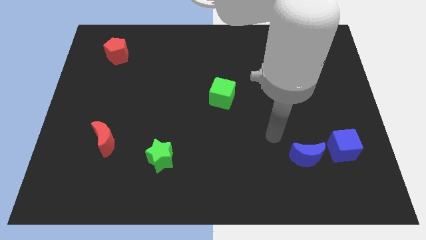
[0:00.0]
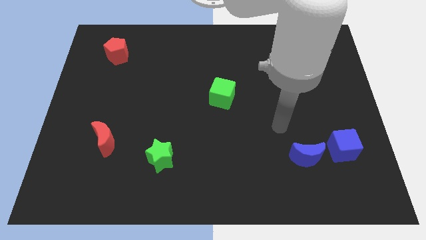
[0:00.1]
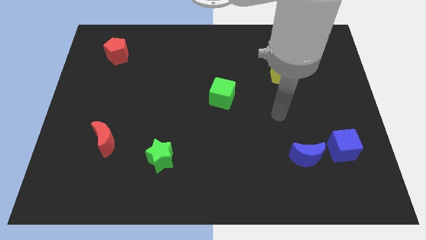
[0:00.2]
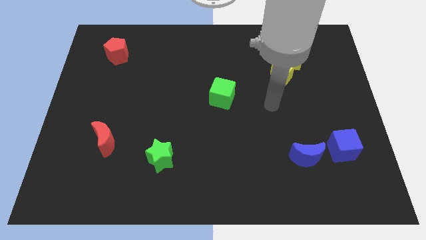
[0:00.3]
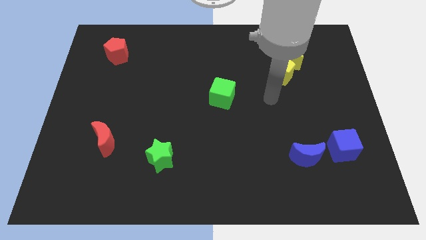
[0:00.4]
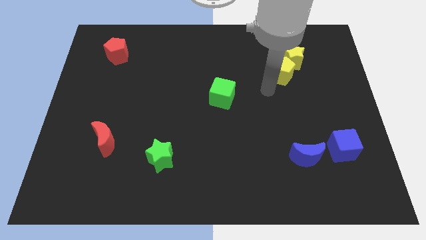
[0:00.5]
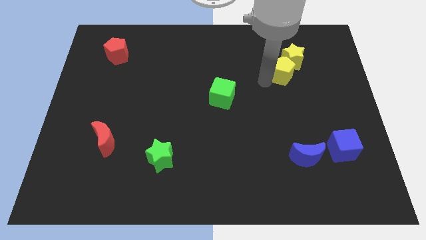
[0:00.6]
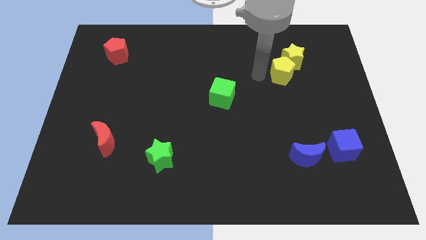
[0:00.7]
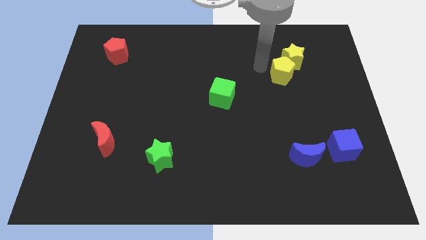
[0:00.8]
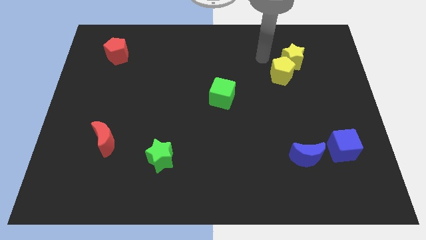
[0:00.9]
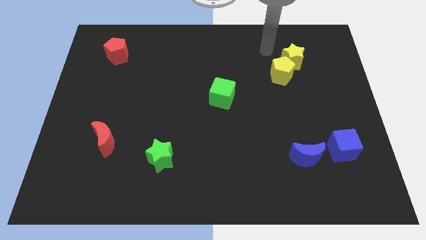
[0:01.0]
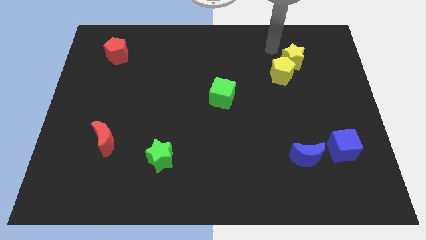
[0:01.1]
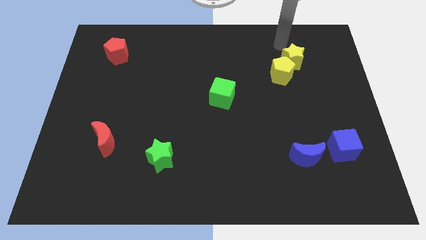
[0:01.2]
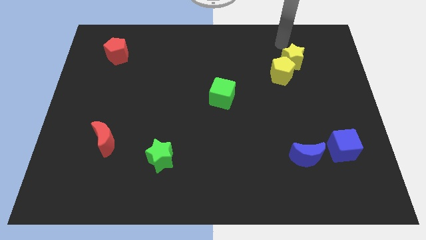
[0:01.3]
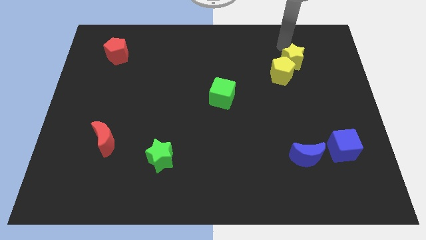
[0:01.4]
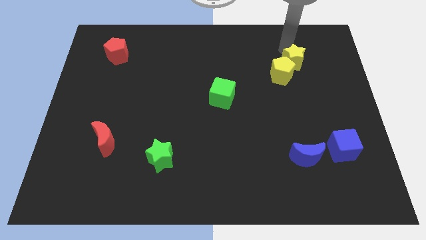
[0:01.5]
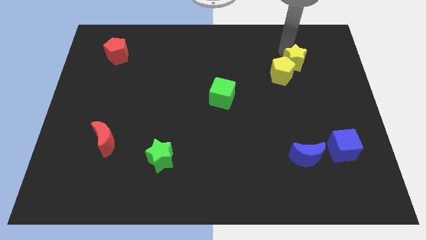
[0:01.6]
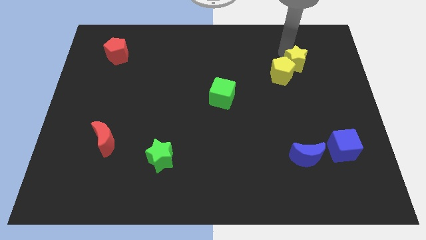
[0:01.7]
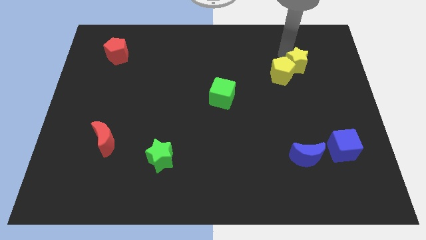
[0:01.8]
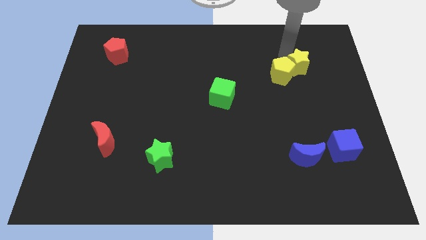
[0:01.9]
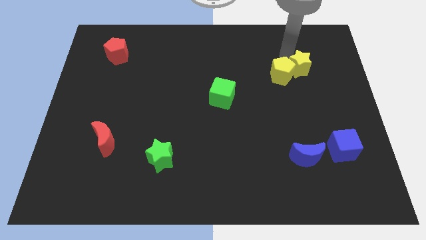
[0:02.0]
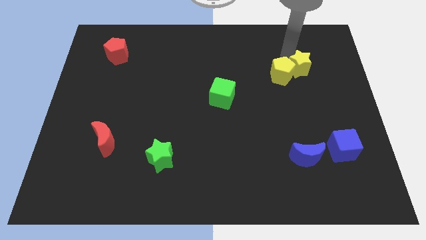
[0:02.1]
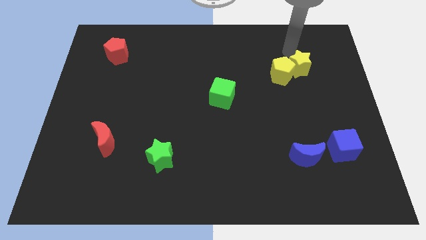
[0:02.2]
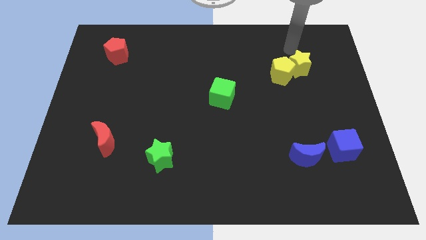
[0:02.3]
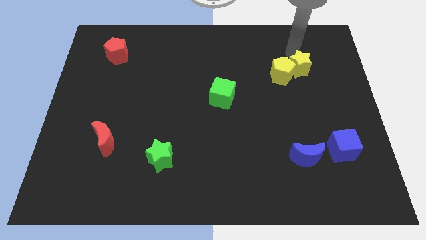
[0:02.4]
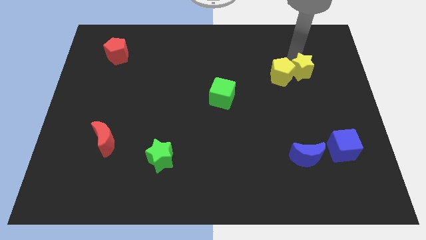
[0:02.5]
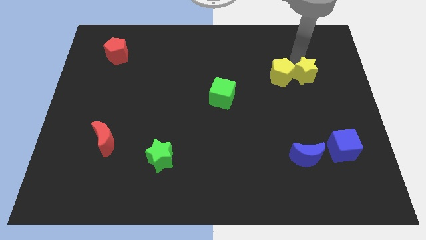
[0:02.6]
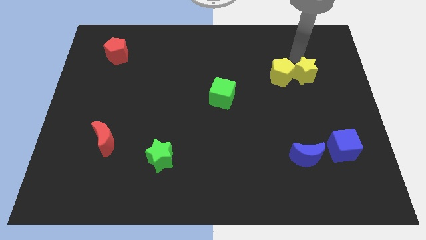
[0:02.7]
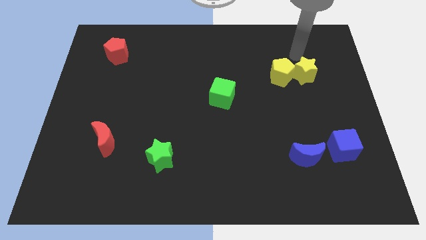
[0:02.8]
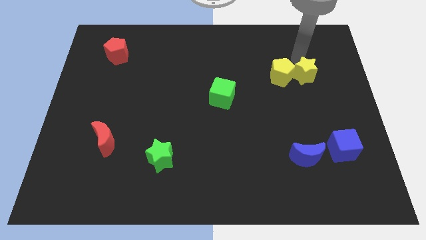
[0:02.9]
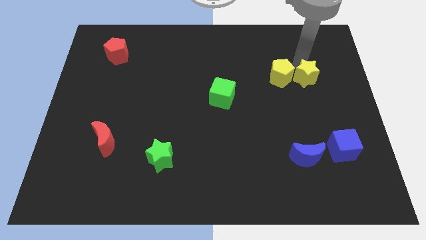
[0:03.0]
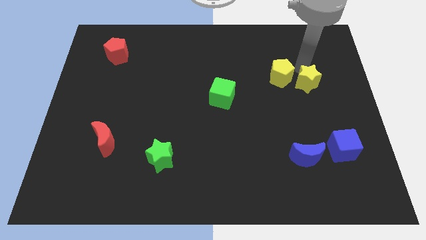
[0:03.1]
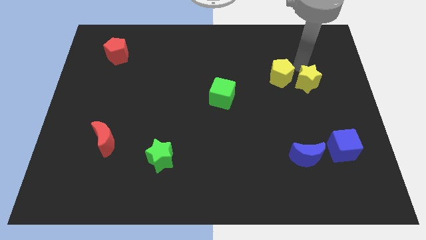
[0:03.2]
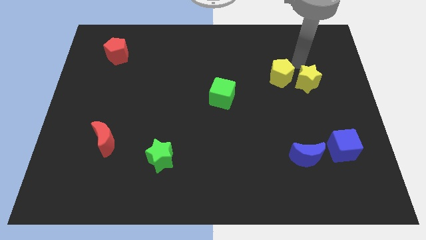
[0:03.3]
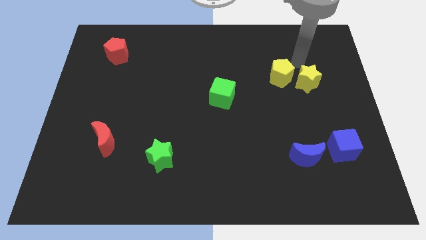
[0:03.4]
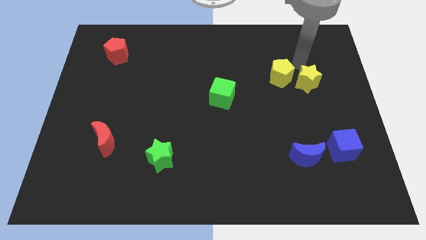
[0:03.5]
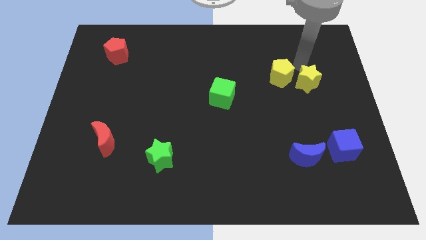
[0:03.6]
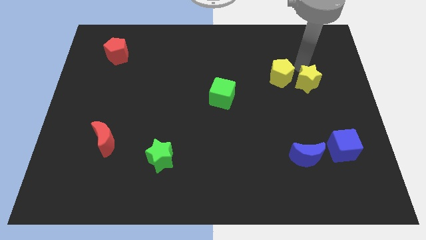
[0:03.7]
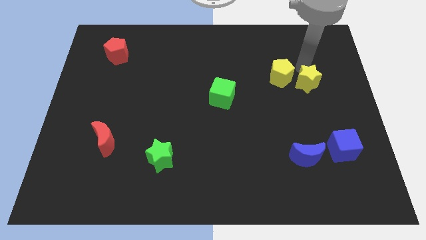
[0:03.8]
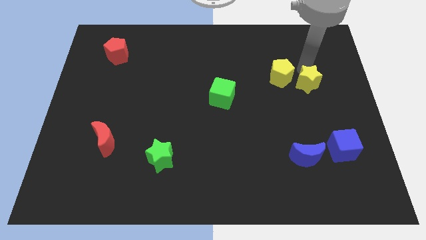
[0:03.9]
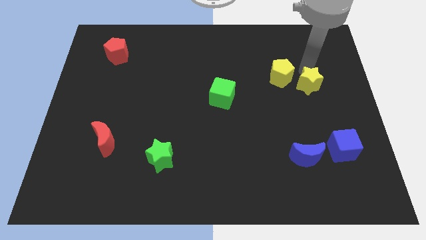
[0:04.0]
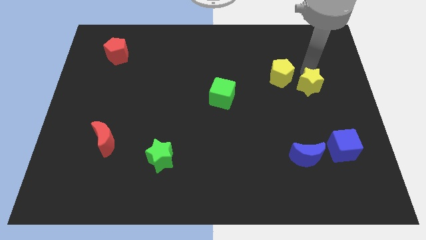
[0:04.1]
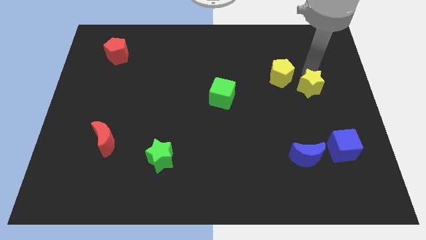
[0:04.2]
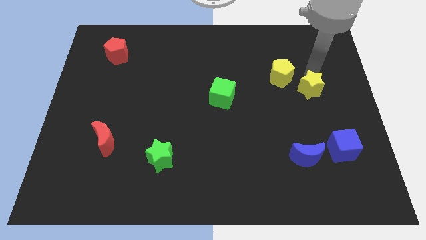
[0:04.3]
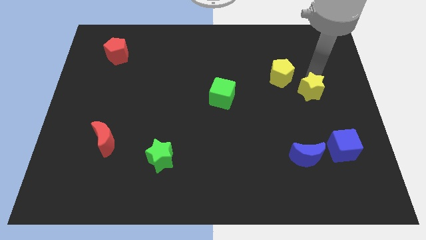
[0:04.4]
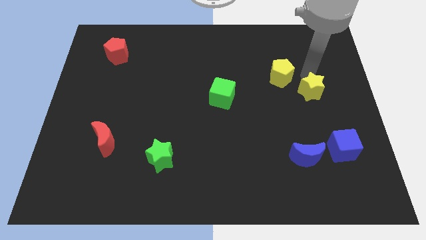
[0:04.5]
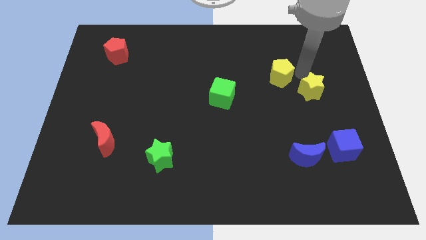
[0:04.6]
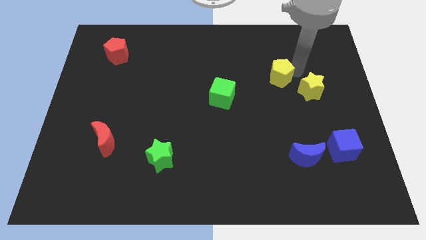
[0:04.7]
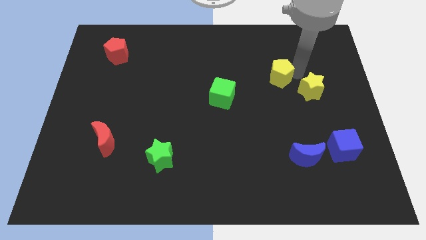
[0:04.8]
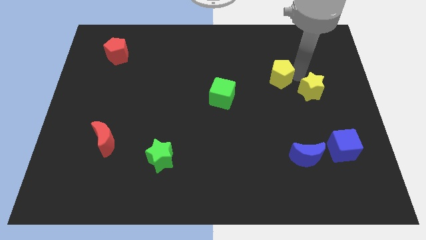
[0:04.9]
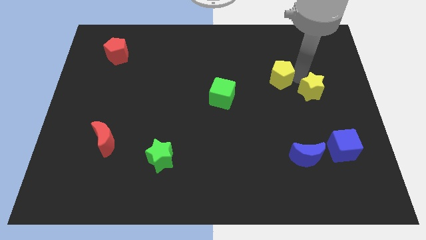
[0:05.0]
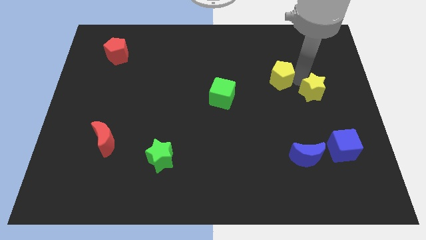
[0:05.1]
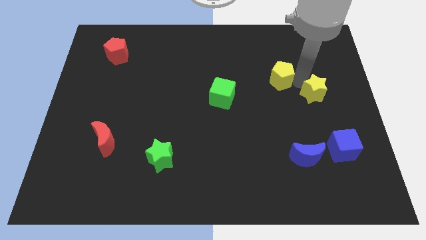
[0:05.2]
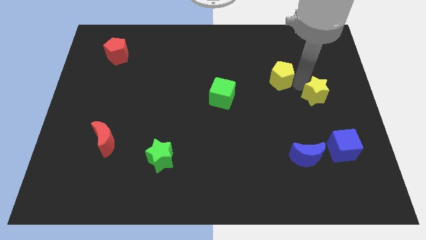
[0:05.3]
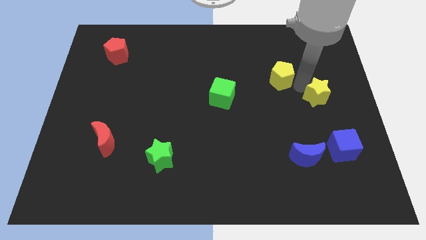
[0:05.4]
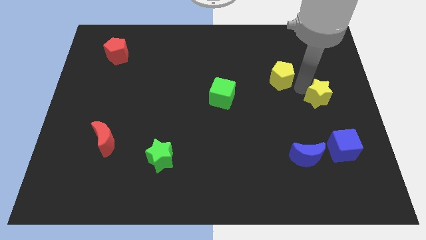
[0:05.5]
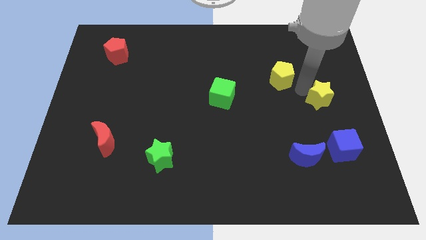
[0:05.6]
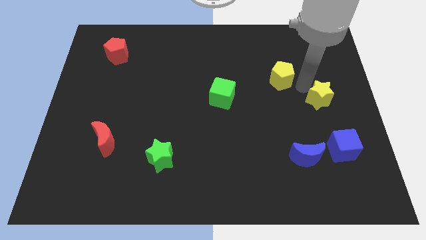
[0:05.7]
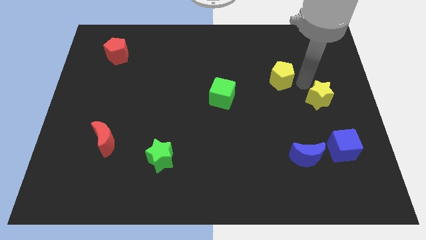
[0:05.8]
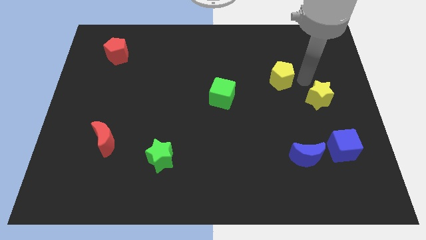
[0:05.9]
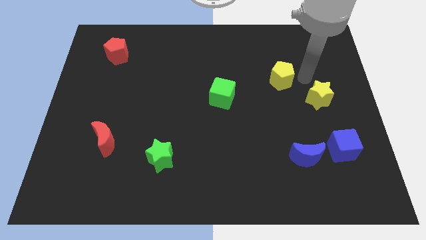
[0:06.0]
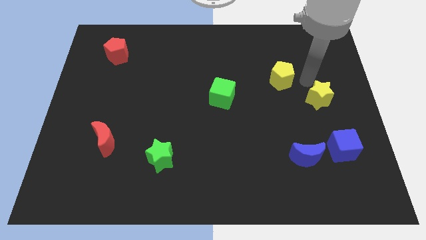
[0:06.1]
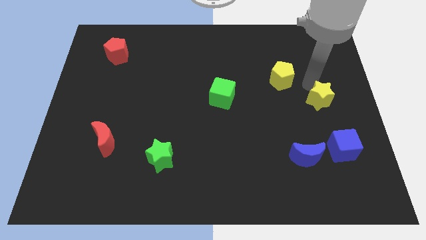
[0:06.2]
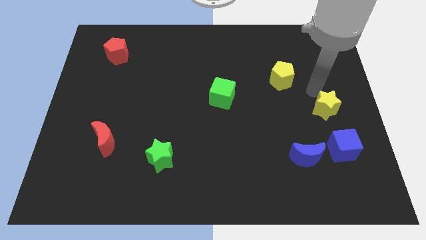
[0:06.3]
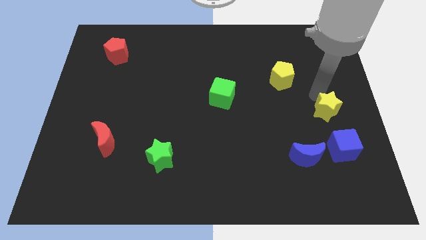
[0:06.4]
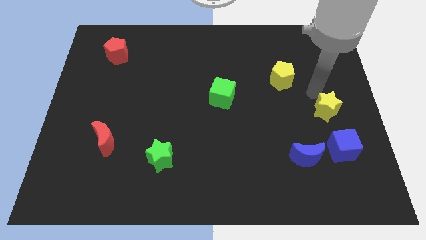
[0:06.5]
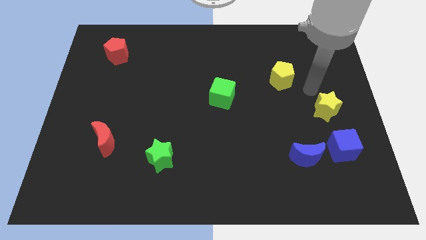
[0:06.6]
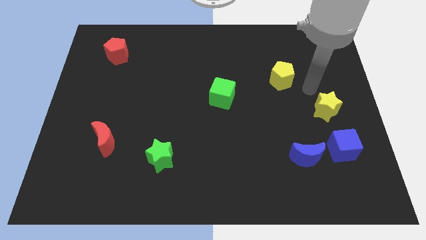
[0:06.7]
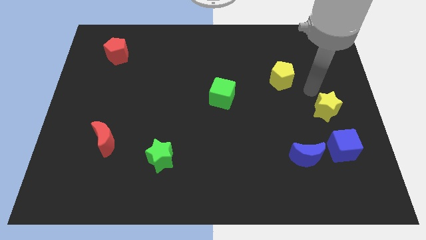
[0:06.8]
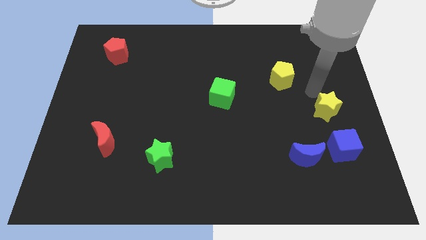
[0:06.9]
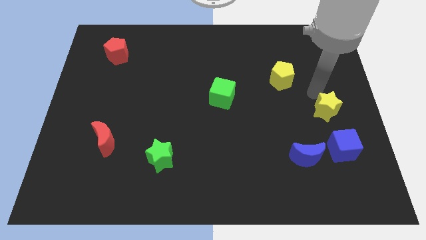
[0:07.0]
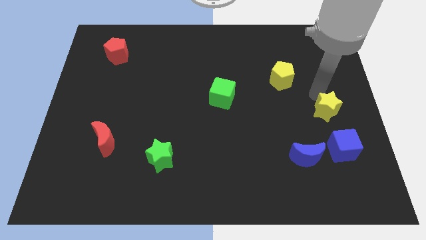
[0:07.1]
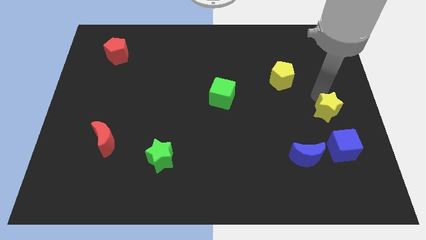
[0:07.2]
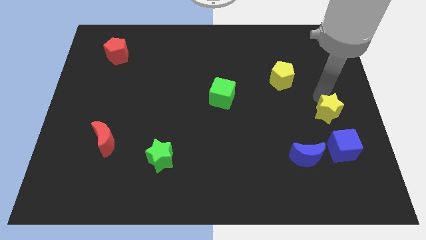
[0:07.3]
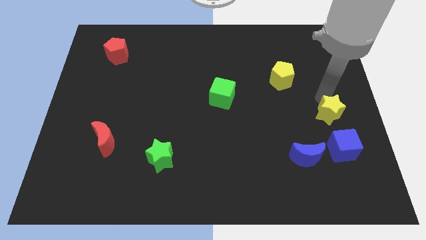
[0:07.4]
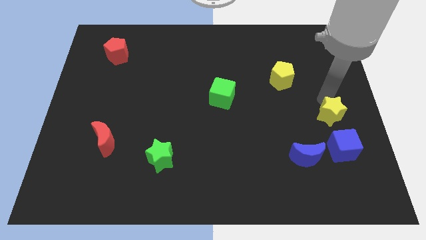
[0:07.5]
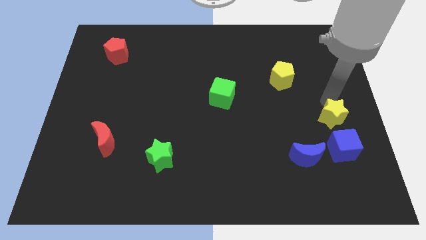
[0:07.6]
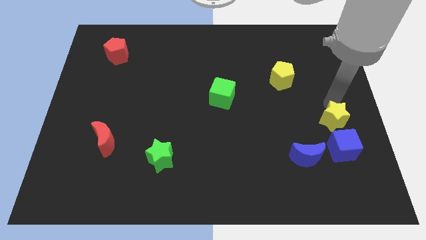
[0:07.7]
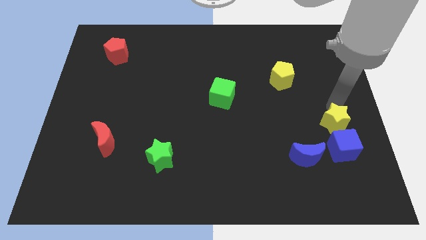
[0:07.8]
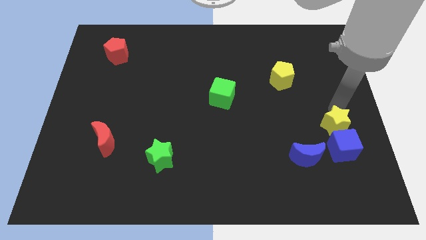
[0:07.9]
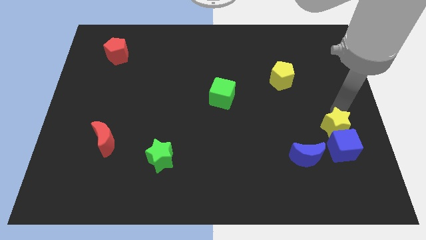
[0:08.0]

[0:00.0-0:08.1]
slide the yellow star next to the blue cube
